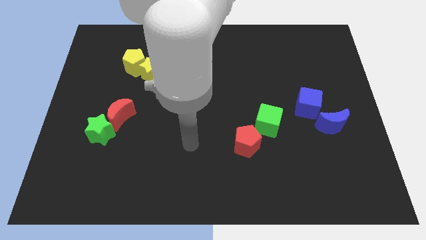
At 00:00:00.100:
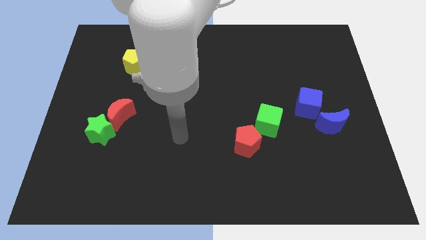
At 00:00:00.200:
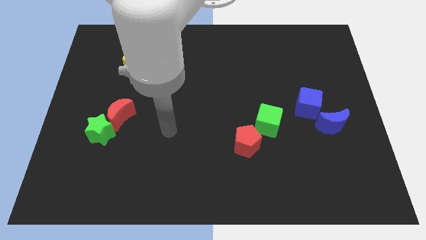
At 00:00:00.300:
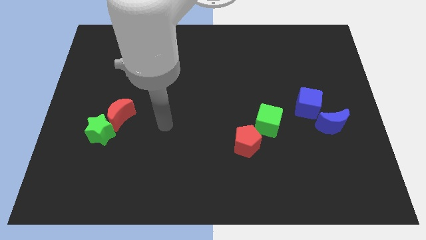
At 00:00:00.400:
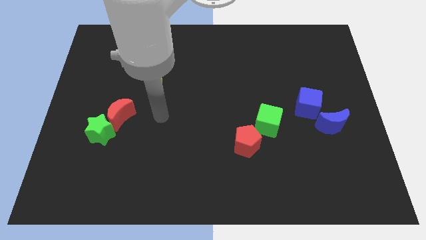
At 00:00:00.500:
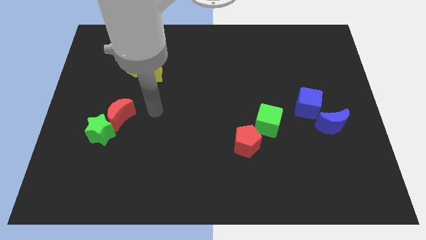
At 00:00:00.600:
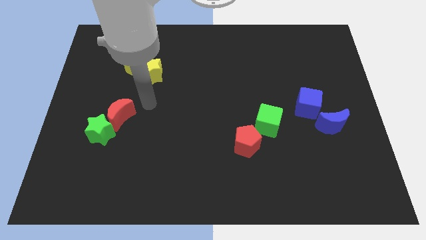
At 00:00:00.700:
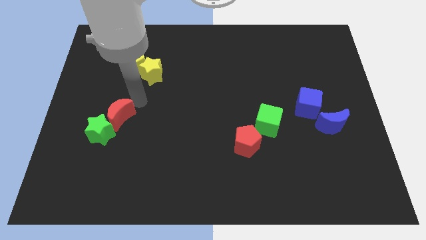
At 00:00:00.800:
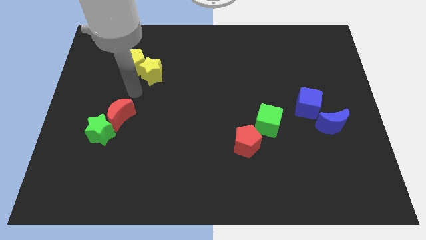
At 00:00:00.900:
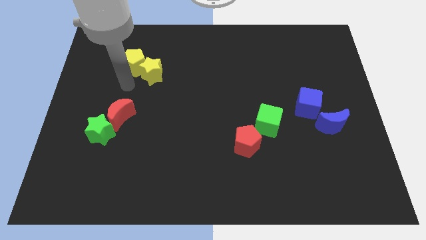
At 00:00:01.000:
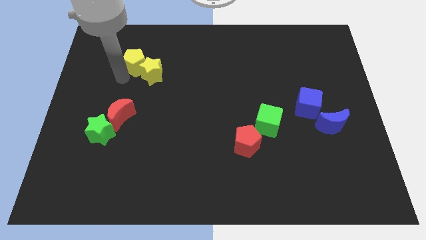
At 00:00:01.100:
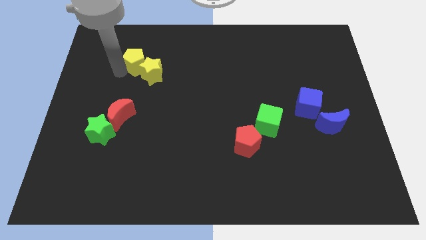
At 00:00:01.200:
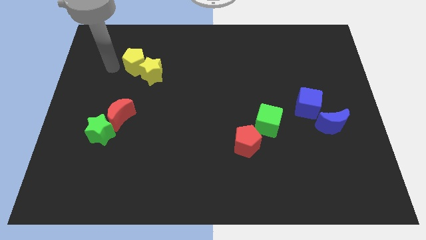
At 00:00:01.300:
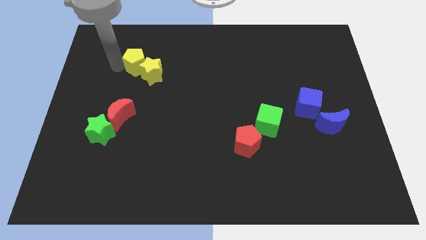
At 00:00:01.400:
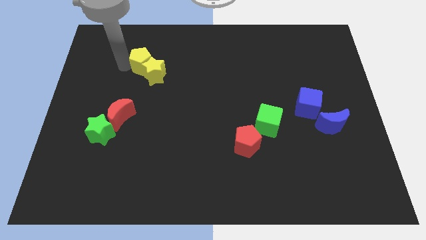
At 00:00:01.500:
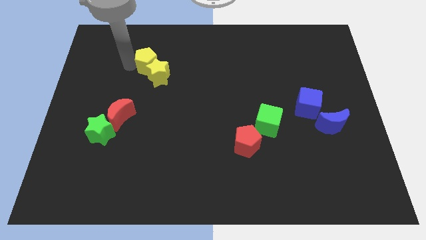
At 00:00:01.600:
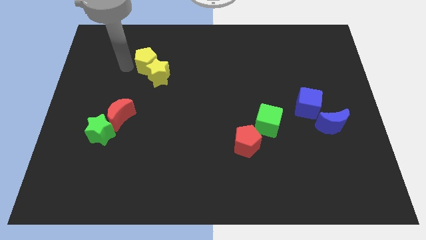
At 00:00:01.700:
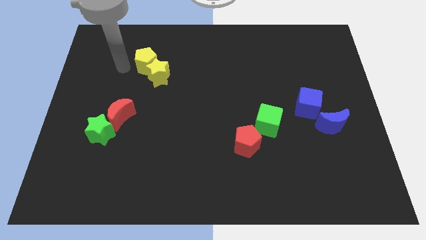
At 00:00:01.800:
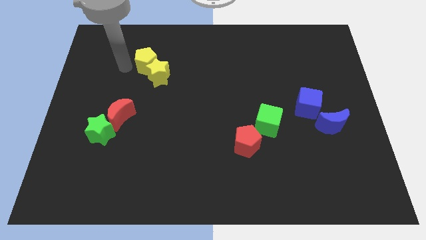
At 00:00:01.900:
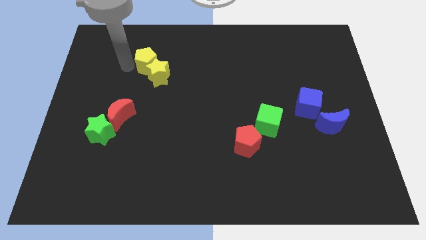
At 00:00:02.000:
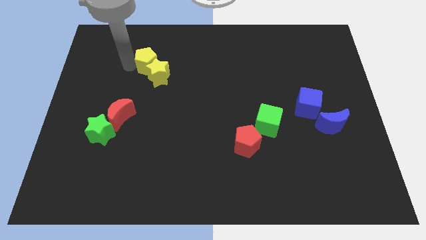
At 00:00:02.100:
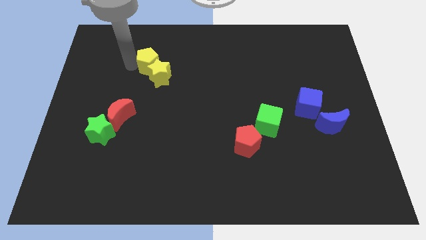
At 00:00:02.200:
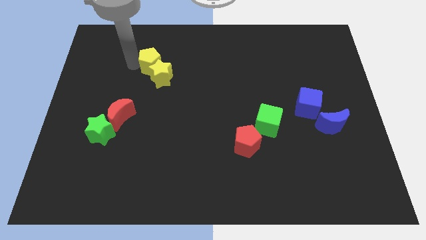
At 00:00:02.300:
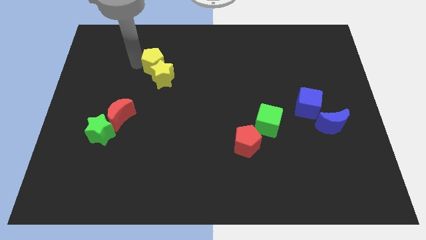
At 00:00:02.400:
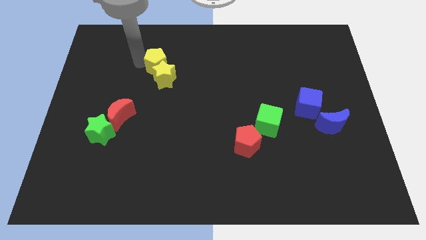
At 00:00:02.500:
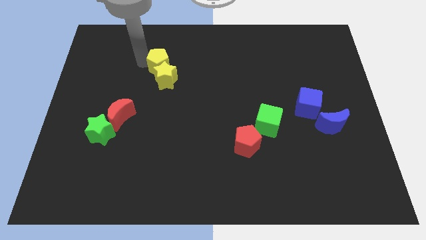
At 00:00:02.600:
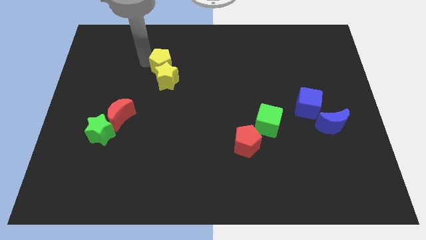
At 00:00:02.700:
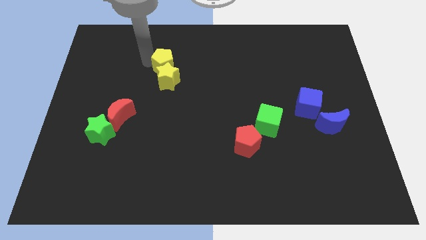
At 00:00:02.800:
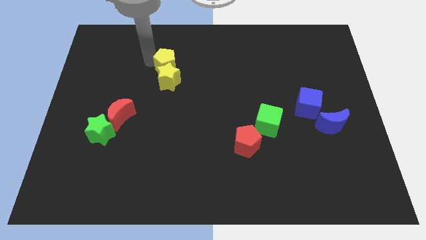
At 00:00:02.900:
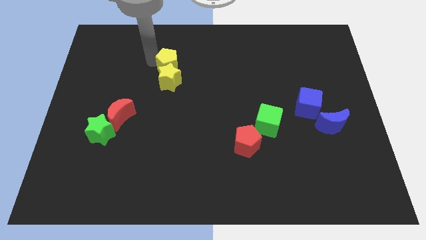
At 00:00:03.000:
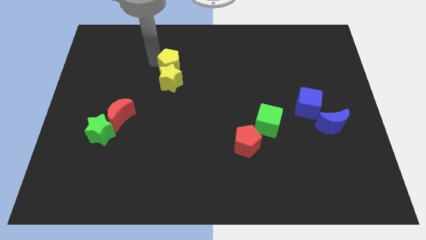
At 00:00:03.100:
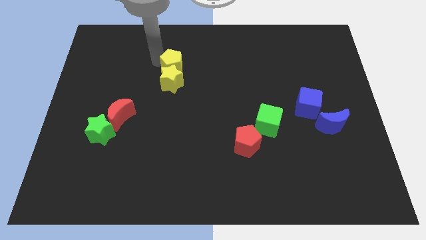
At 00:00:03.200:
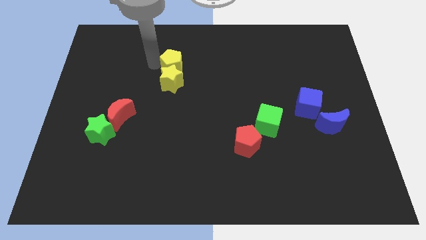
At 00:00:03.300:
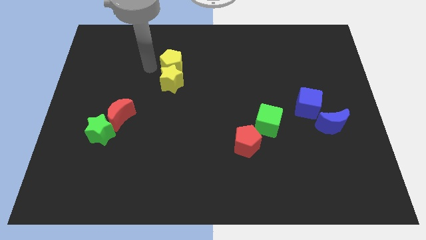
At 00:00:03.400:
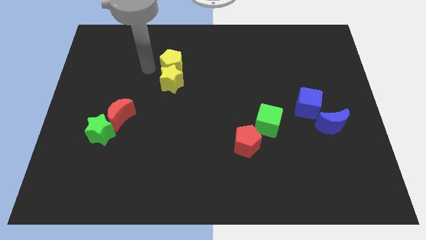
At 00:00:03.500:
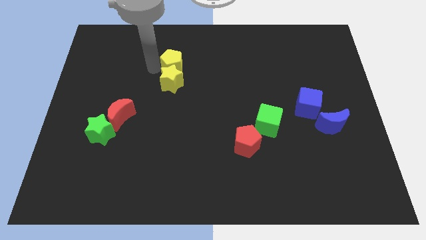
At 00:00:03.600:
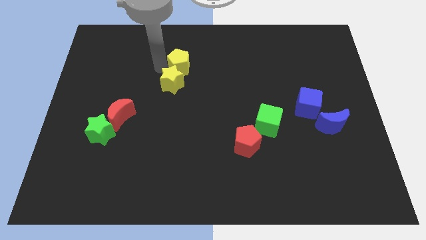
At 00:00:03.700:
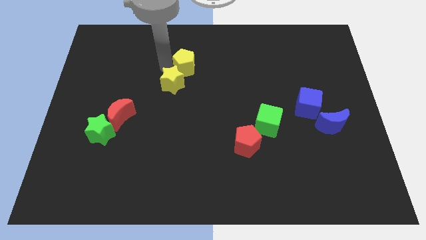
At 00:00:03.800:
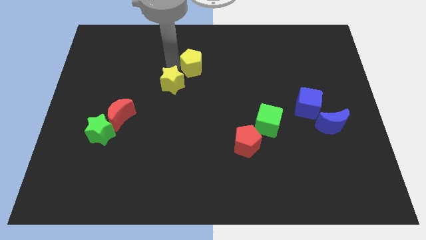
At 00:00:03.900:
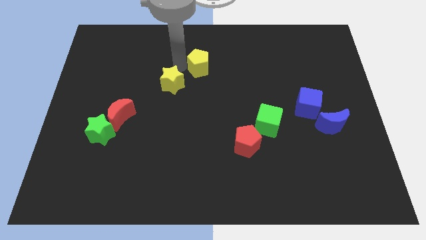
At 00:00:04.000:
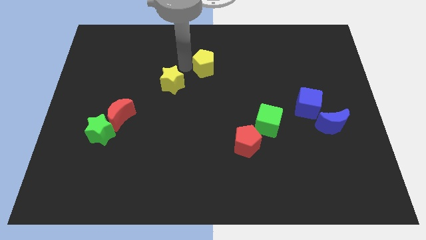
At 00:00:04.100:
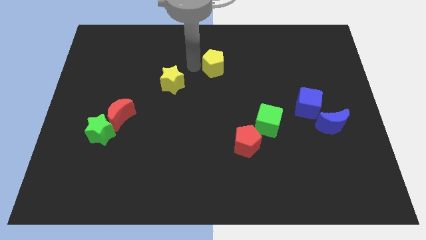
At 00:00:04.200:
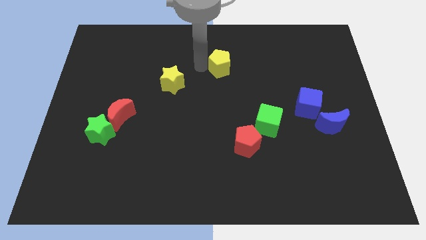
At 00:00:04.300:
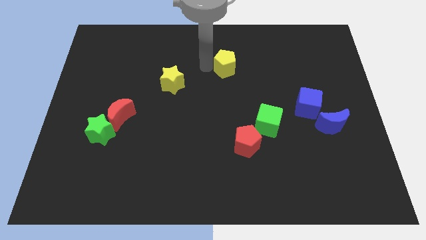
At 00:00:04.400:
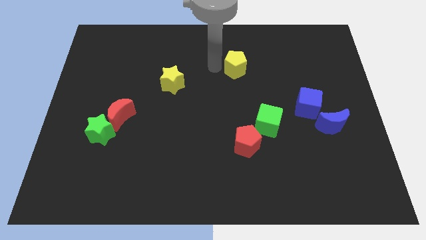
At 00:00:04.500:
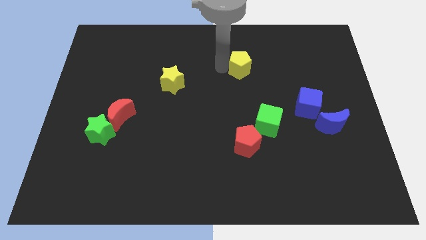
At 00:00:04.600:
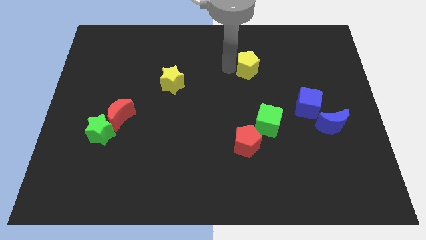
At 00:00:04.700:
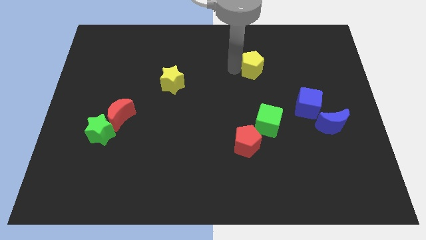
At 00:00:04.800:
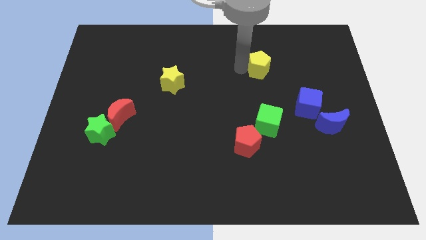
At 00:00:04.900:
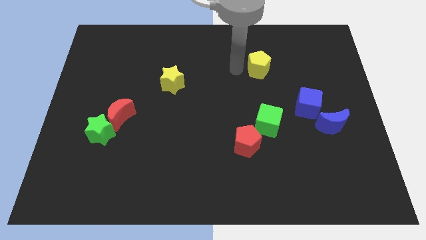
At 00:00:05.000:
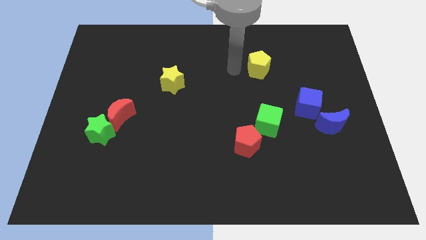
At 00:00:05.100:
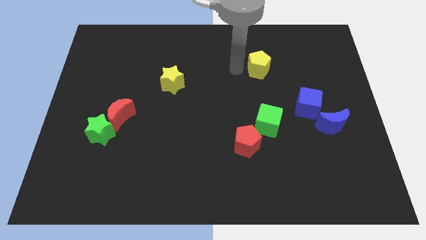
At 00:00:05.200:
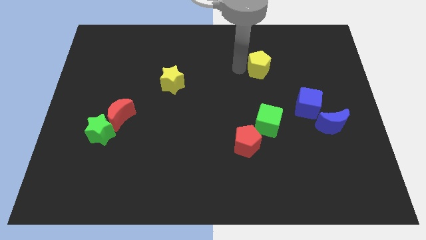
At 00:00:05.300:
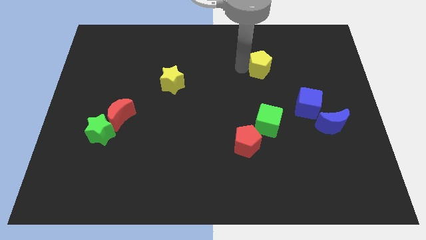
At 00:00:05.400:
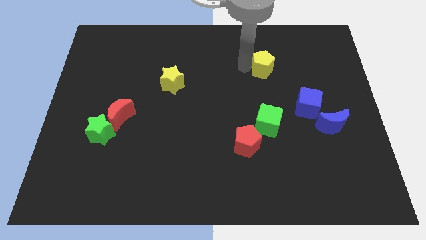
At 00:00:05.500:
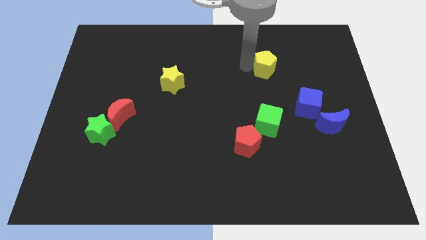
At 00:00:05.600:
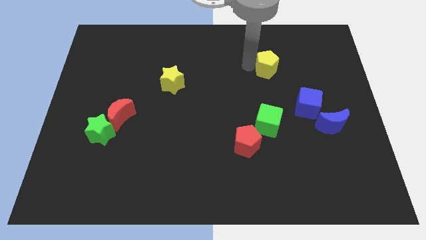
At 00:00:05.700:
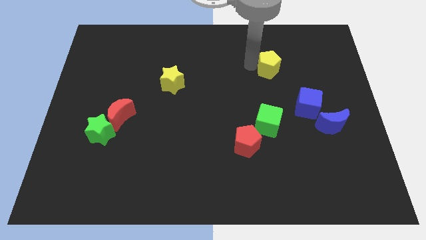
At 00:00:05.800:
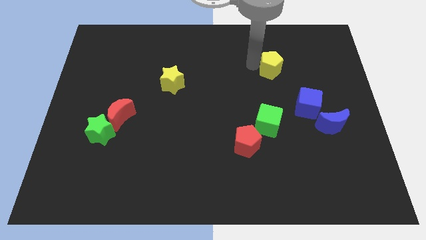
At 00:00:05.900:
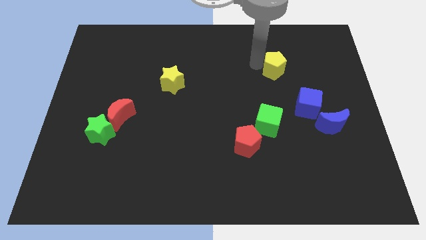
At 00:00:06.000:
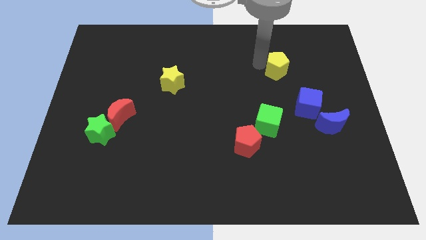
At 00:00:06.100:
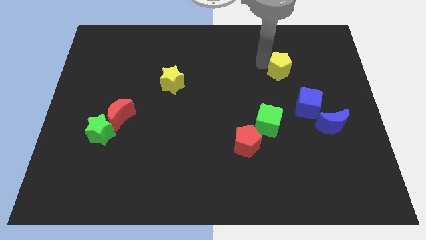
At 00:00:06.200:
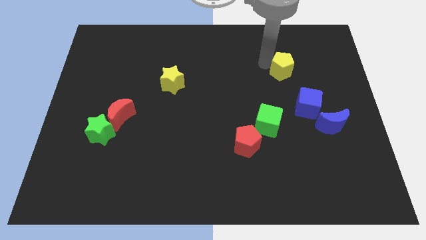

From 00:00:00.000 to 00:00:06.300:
slide the yellow pentagon above the blue cube
